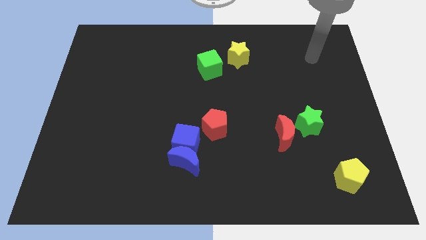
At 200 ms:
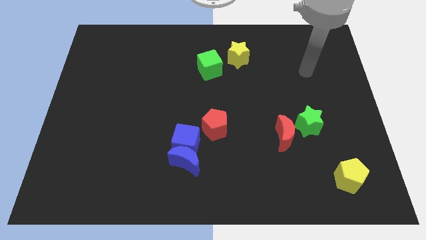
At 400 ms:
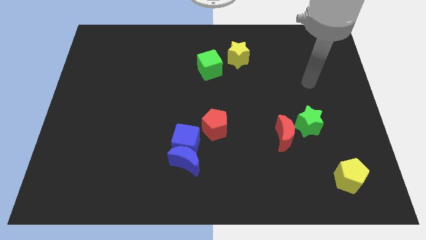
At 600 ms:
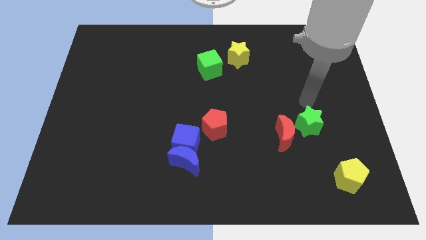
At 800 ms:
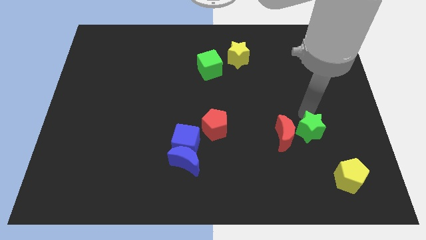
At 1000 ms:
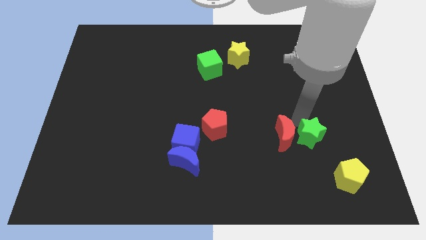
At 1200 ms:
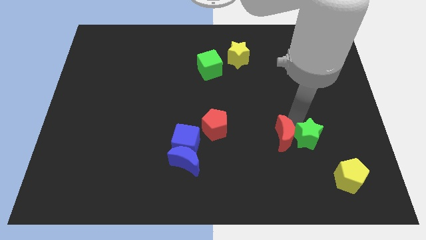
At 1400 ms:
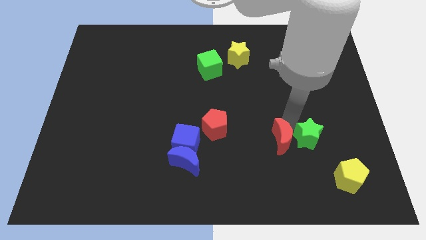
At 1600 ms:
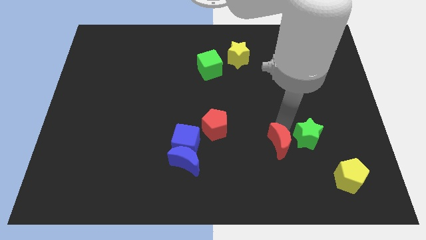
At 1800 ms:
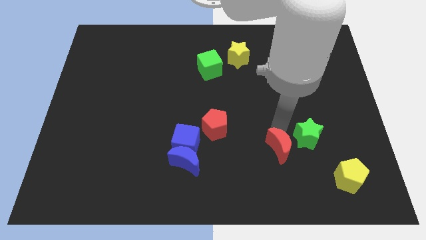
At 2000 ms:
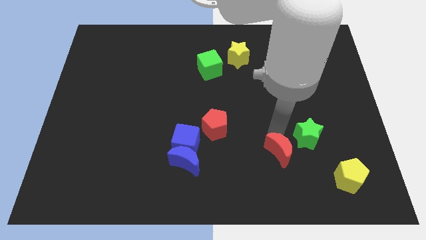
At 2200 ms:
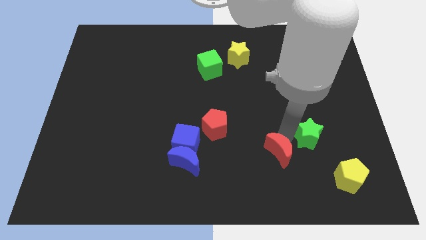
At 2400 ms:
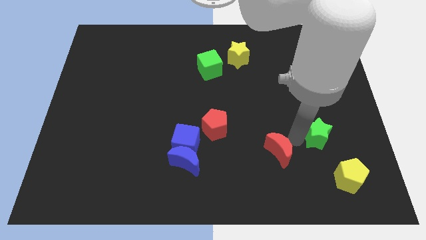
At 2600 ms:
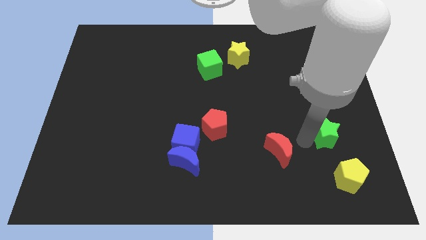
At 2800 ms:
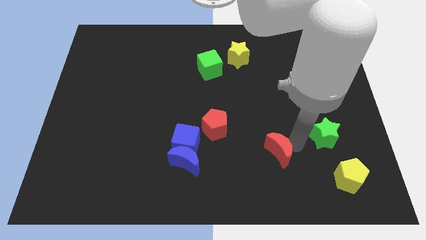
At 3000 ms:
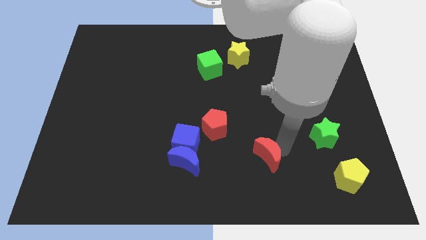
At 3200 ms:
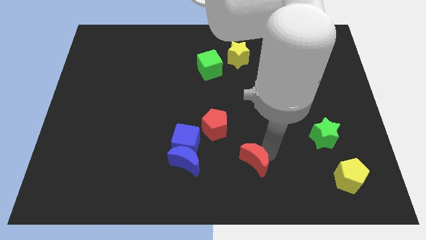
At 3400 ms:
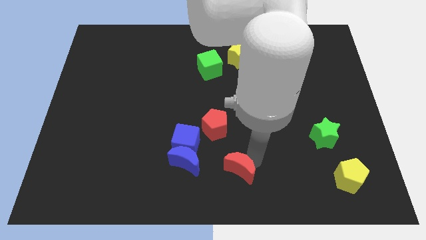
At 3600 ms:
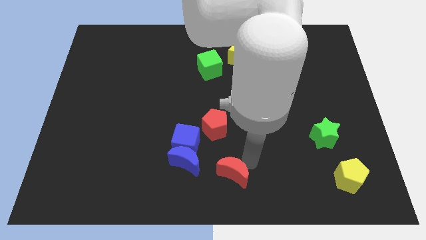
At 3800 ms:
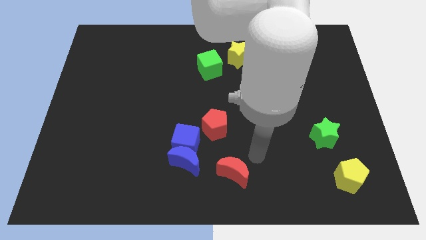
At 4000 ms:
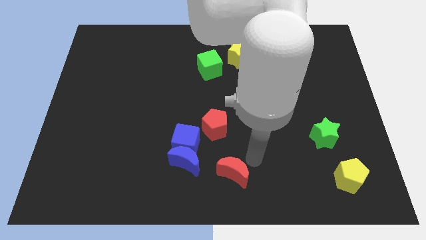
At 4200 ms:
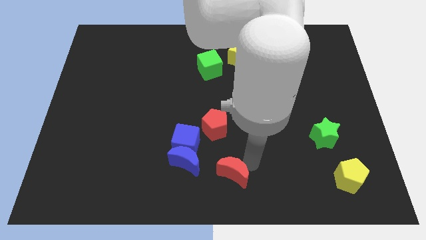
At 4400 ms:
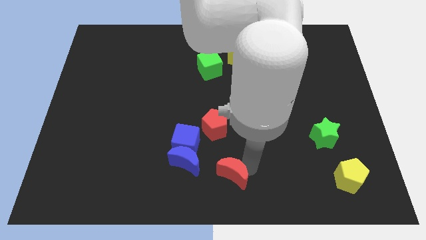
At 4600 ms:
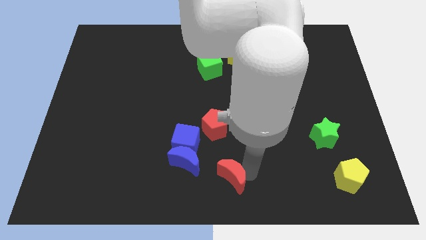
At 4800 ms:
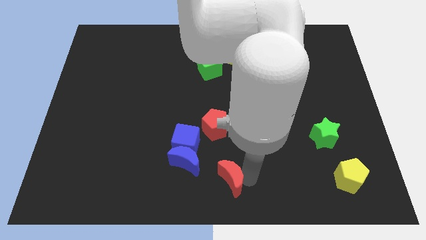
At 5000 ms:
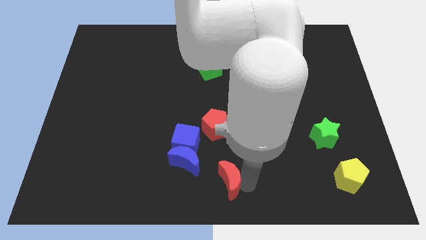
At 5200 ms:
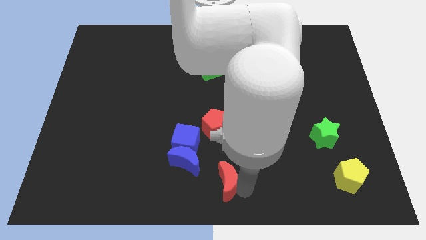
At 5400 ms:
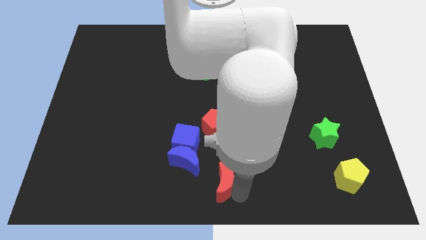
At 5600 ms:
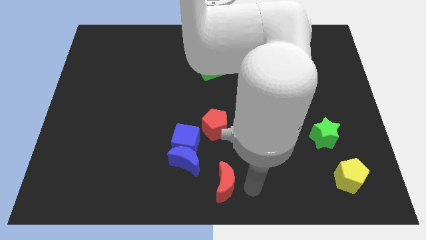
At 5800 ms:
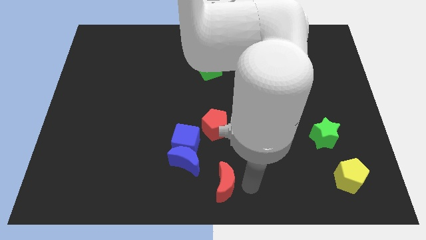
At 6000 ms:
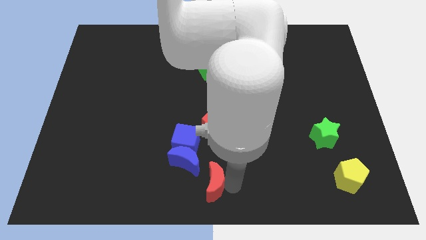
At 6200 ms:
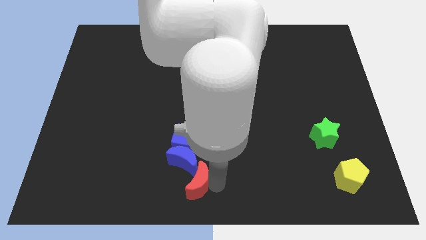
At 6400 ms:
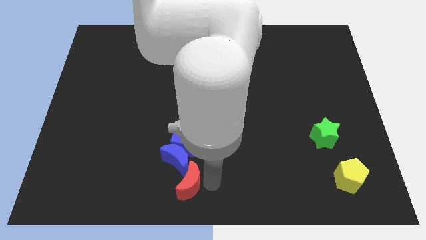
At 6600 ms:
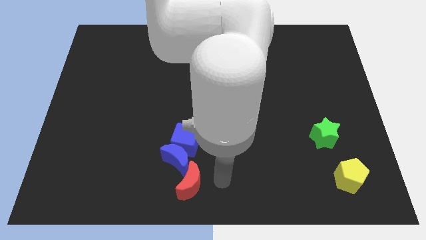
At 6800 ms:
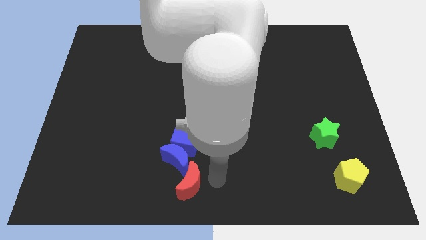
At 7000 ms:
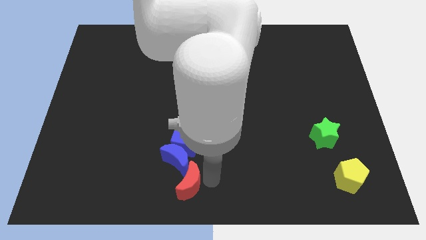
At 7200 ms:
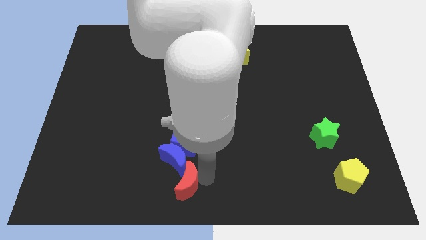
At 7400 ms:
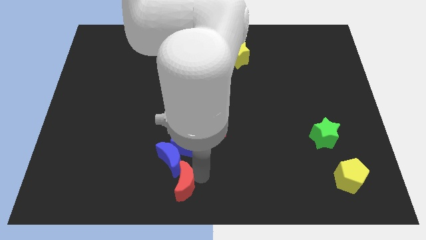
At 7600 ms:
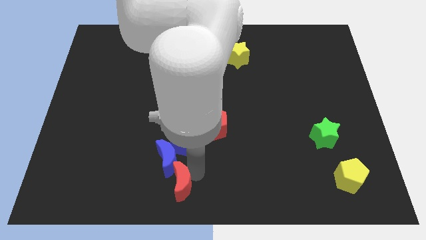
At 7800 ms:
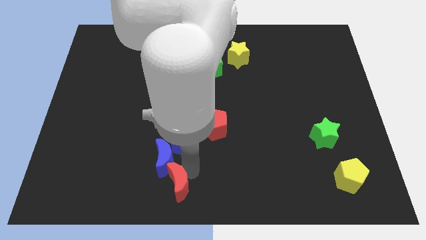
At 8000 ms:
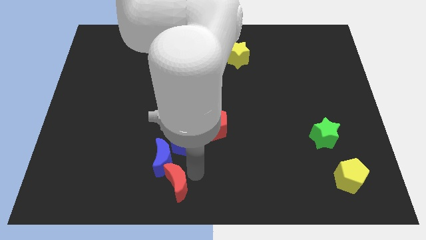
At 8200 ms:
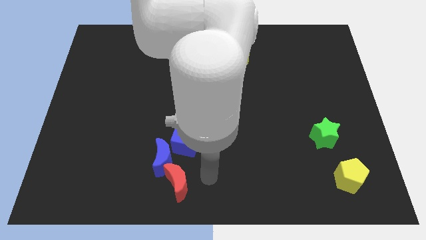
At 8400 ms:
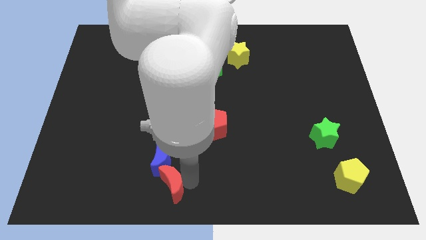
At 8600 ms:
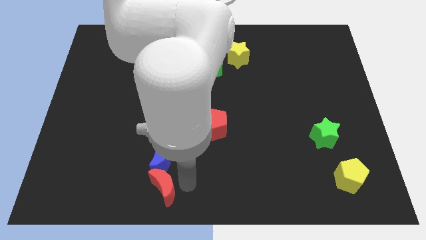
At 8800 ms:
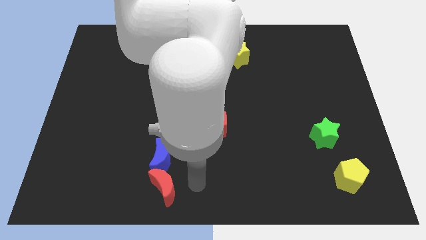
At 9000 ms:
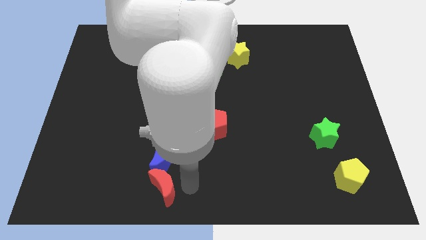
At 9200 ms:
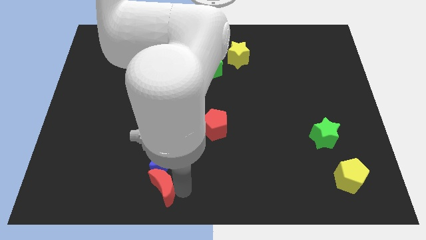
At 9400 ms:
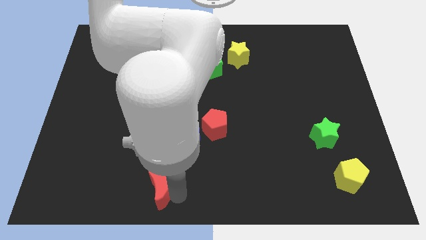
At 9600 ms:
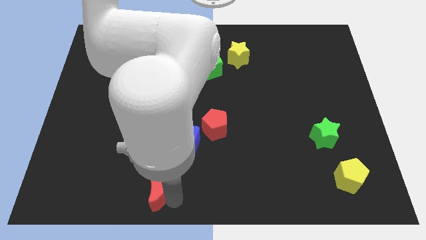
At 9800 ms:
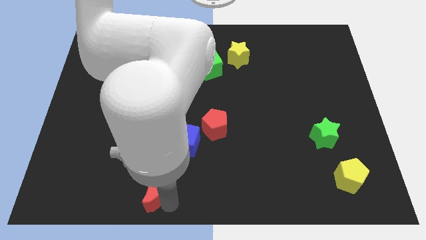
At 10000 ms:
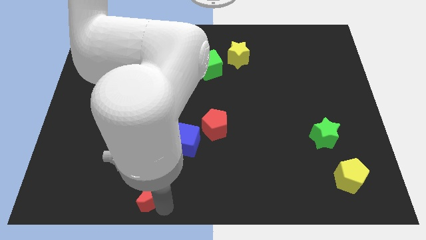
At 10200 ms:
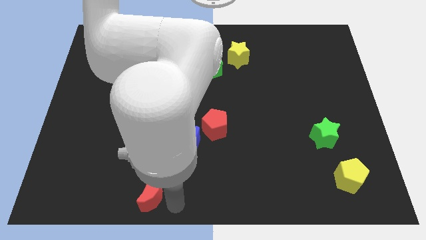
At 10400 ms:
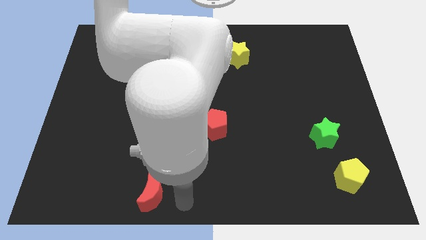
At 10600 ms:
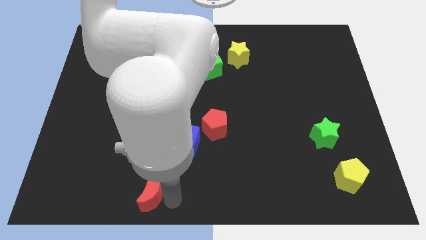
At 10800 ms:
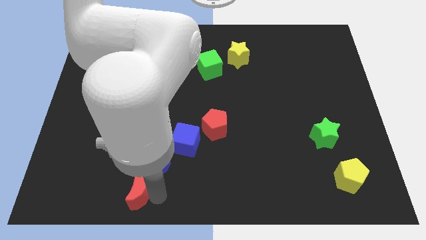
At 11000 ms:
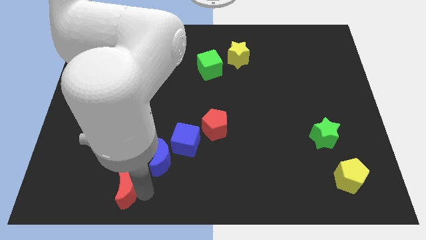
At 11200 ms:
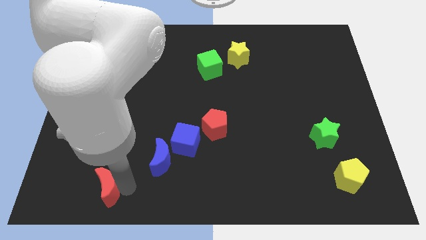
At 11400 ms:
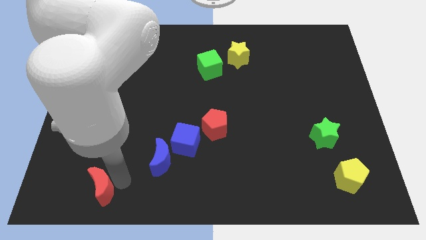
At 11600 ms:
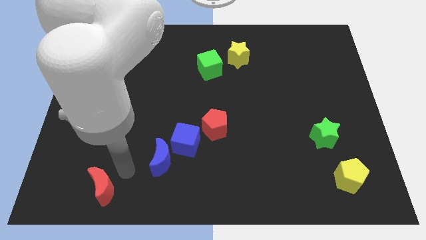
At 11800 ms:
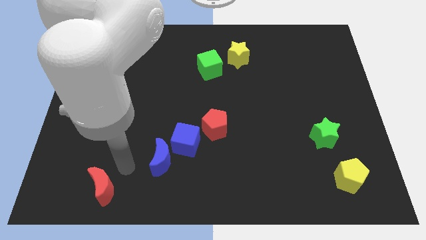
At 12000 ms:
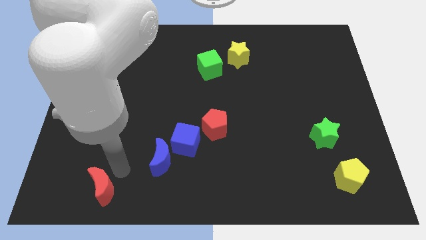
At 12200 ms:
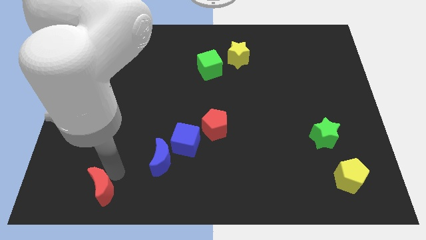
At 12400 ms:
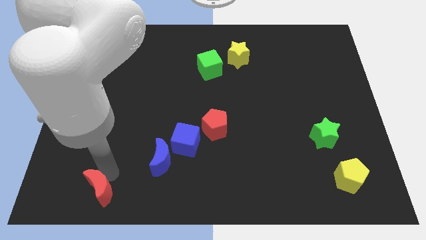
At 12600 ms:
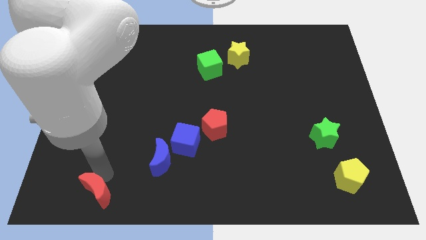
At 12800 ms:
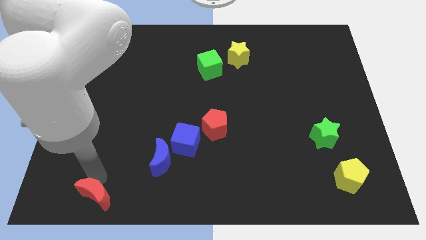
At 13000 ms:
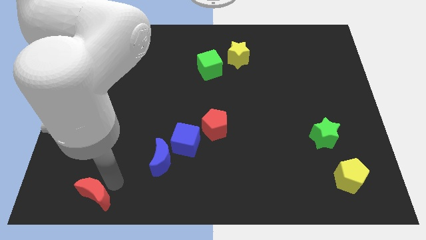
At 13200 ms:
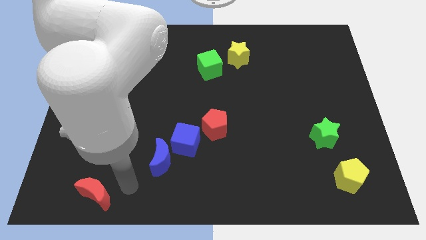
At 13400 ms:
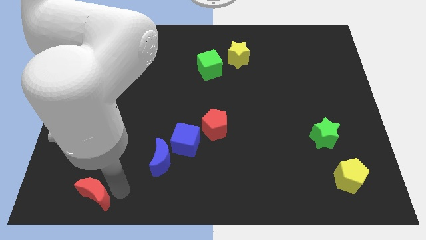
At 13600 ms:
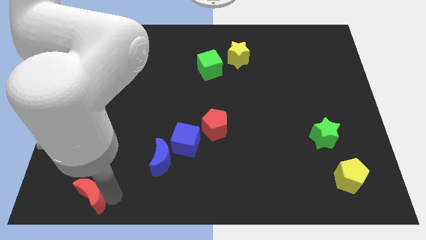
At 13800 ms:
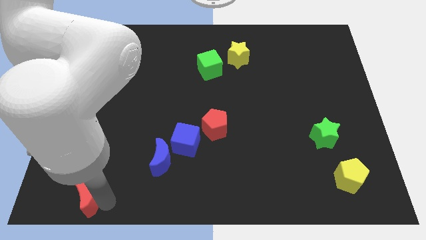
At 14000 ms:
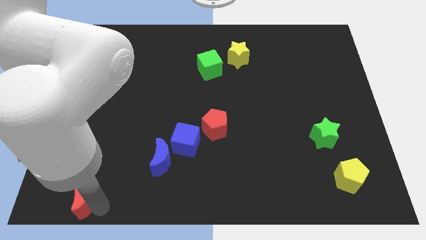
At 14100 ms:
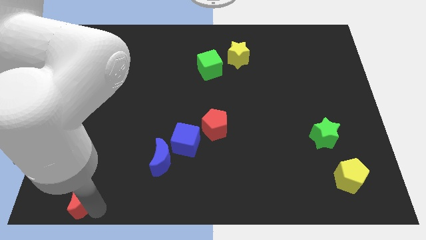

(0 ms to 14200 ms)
slide the red moon to the lower left corner
